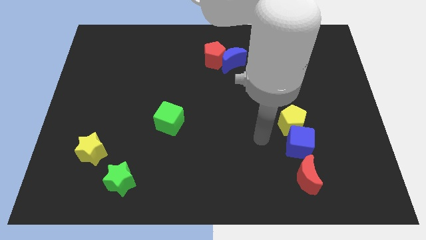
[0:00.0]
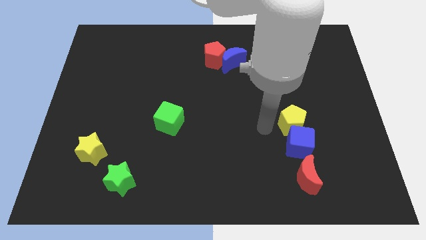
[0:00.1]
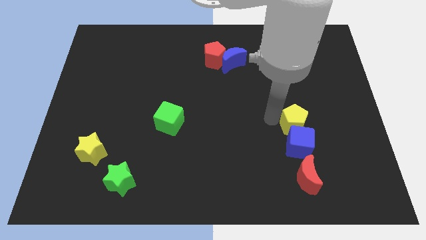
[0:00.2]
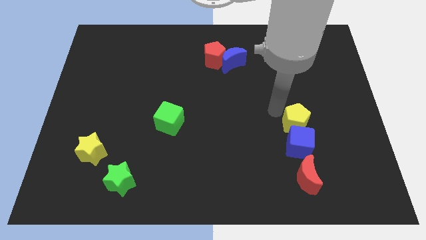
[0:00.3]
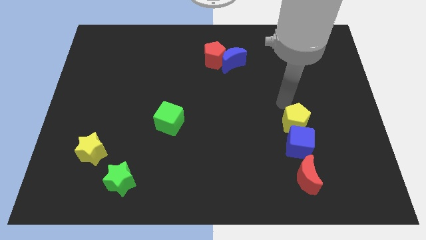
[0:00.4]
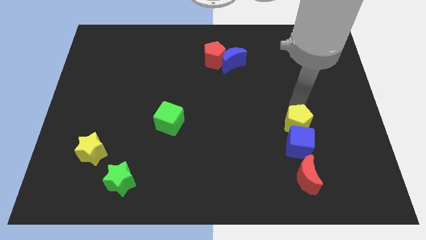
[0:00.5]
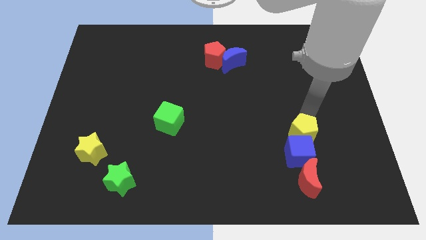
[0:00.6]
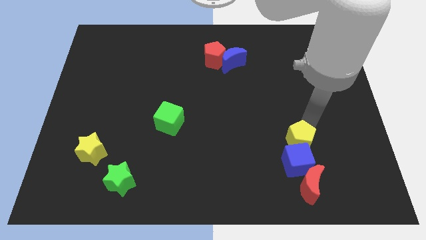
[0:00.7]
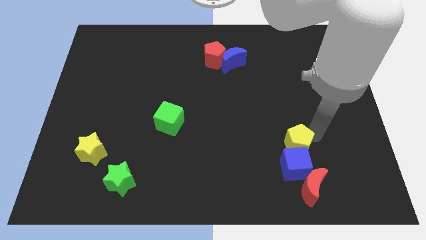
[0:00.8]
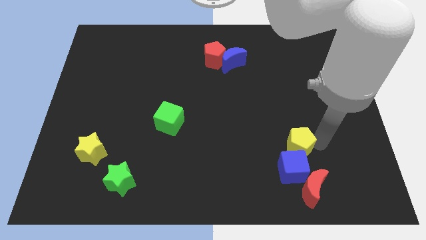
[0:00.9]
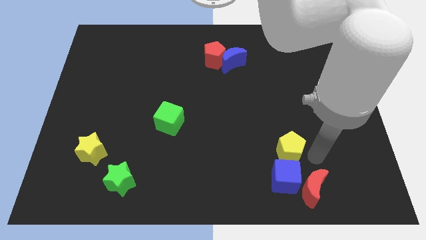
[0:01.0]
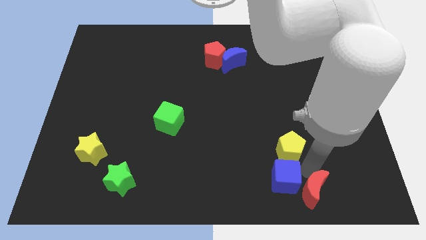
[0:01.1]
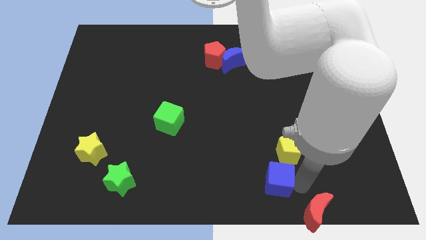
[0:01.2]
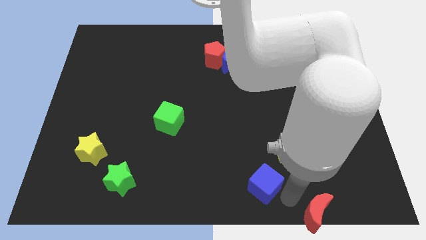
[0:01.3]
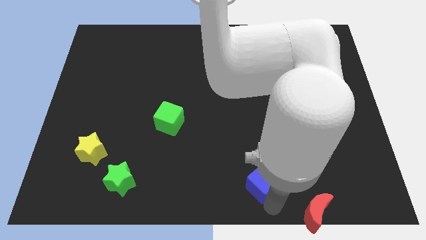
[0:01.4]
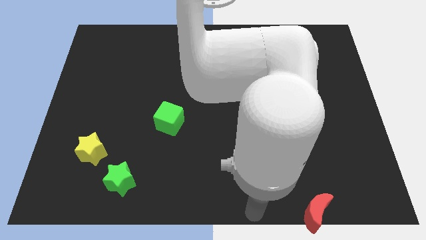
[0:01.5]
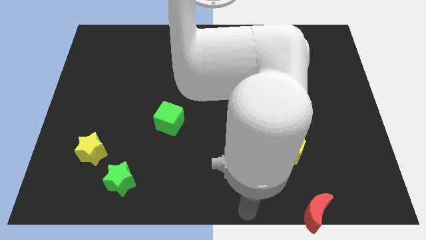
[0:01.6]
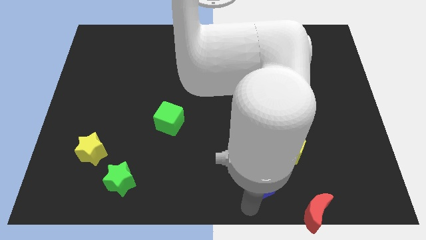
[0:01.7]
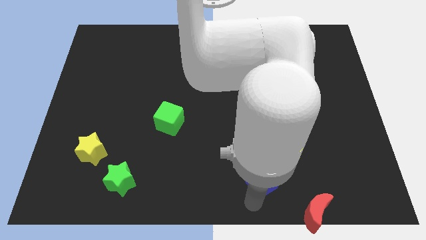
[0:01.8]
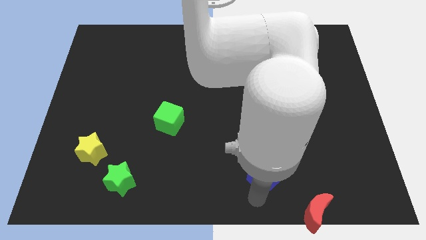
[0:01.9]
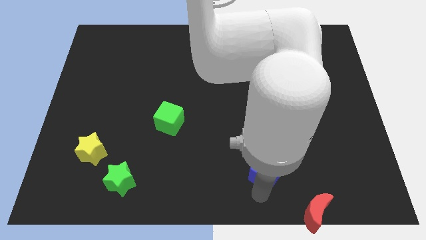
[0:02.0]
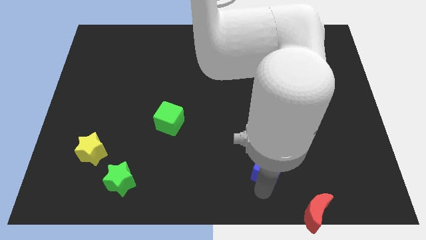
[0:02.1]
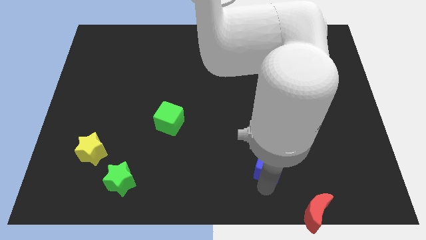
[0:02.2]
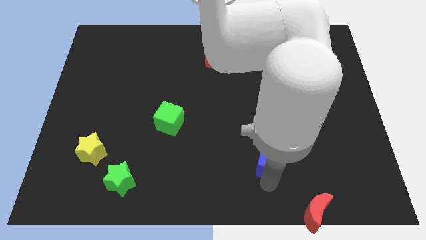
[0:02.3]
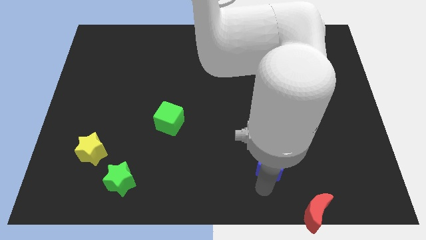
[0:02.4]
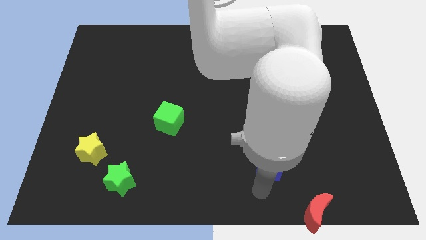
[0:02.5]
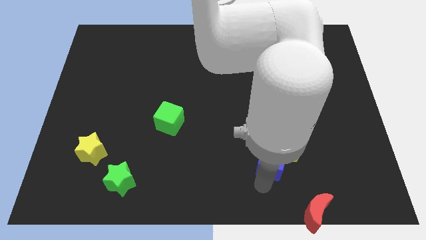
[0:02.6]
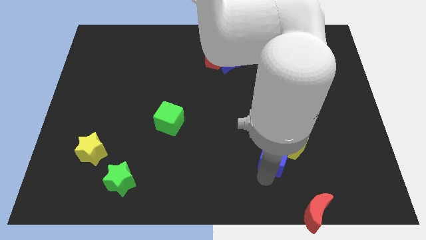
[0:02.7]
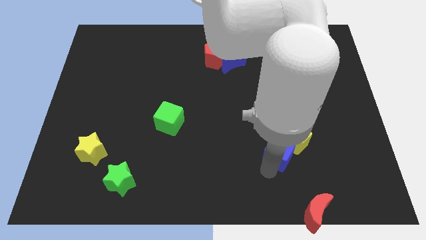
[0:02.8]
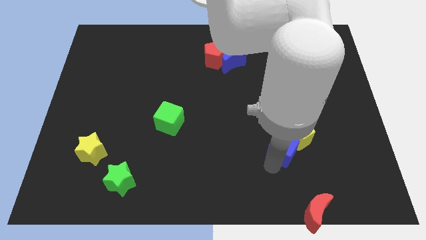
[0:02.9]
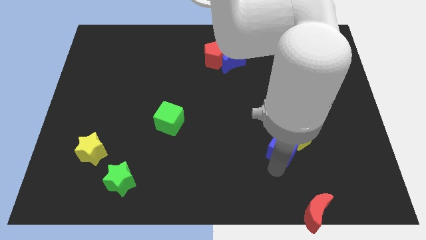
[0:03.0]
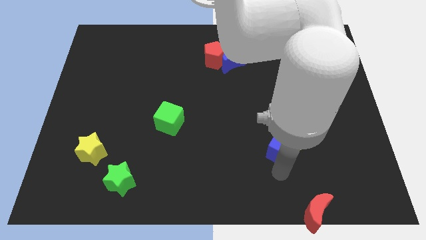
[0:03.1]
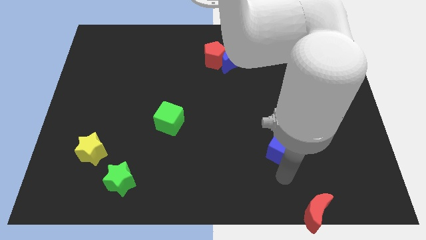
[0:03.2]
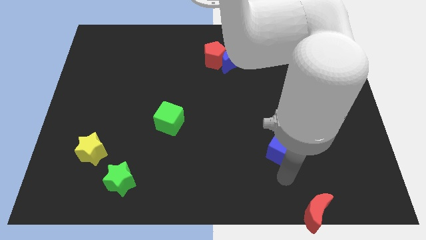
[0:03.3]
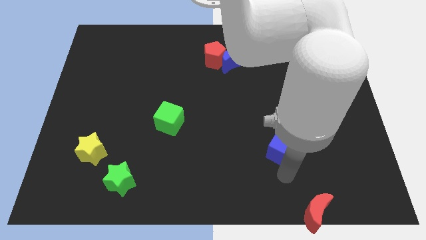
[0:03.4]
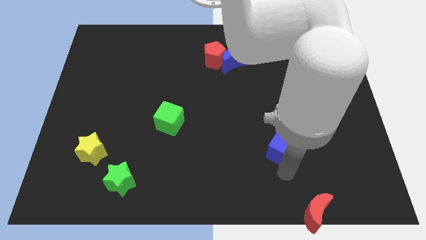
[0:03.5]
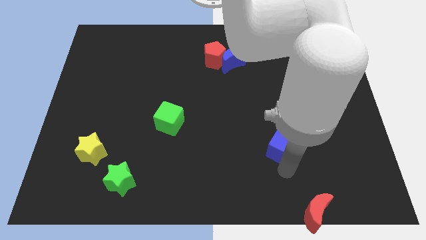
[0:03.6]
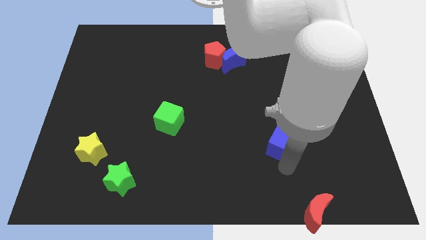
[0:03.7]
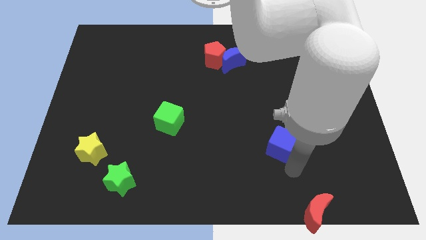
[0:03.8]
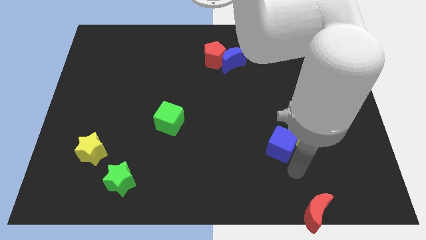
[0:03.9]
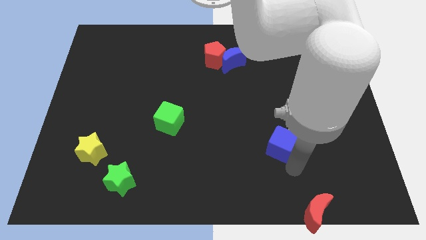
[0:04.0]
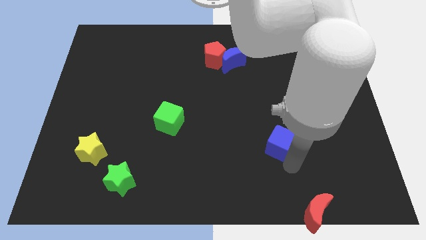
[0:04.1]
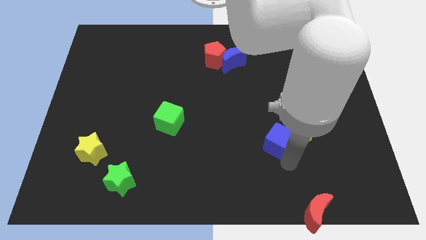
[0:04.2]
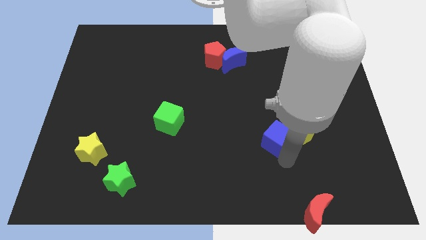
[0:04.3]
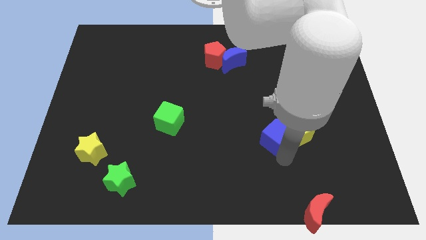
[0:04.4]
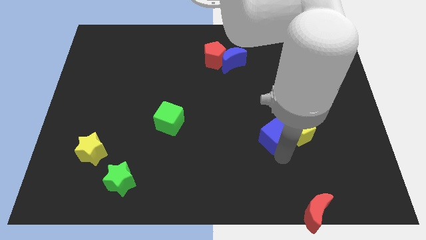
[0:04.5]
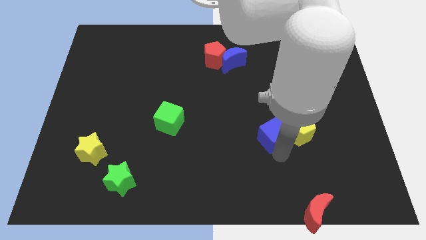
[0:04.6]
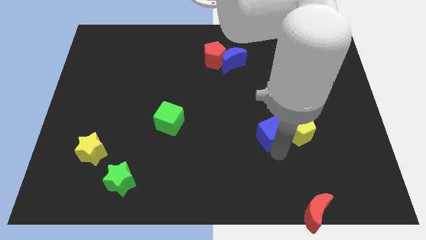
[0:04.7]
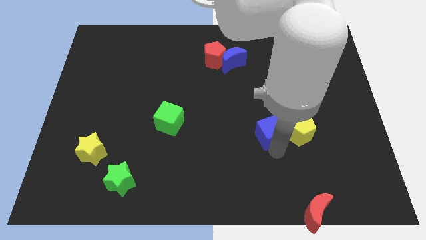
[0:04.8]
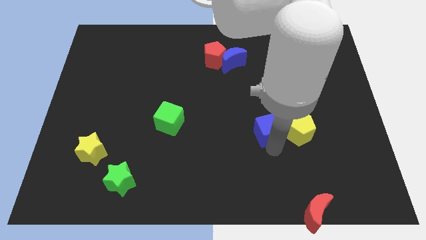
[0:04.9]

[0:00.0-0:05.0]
slide the blue cube somewhat upwards and then to the left

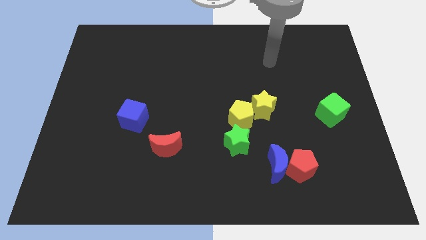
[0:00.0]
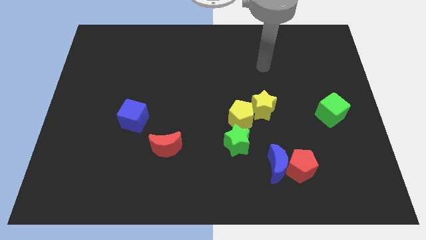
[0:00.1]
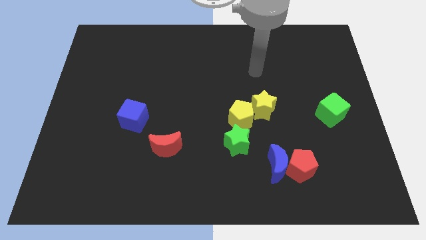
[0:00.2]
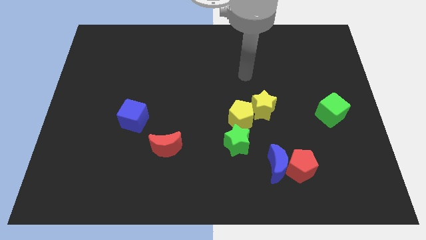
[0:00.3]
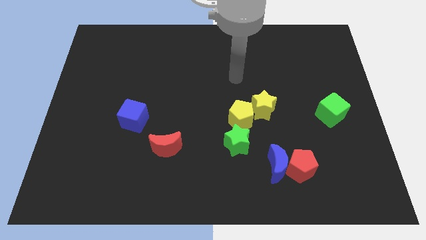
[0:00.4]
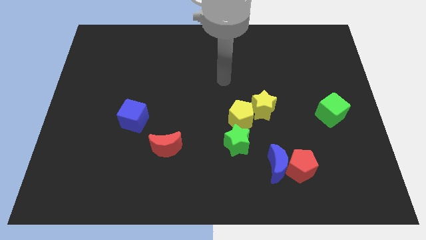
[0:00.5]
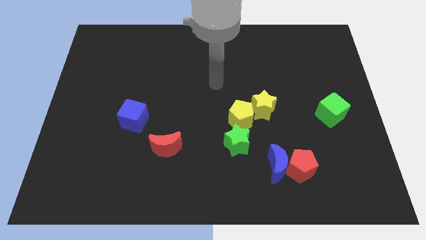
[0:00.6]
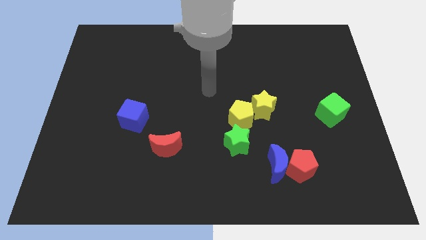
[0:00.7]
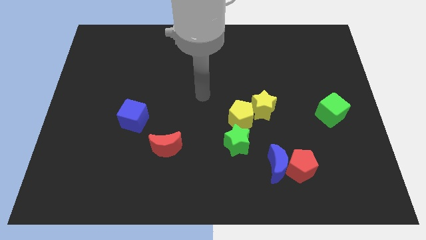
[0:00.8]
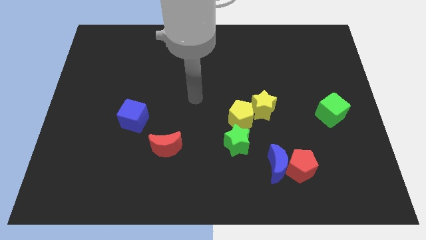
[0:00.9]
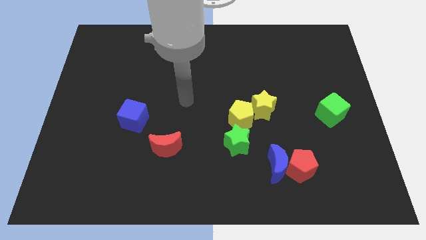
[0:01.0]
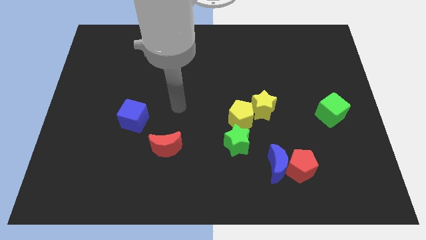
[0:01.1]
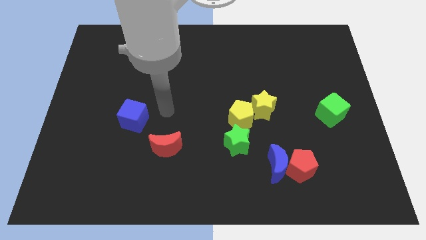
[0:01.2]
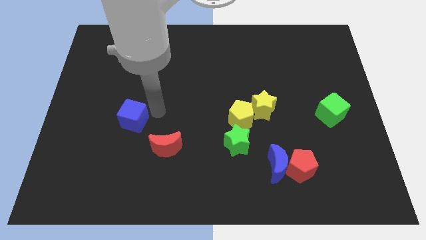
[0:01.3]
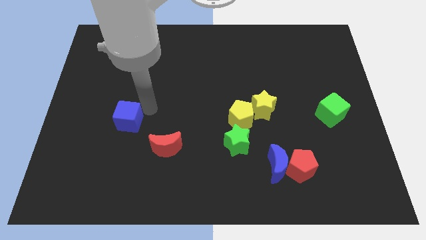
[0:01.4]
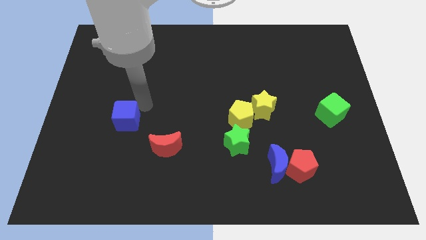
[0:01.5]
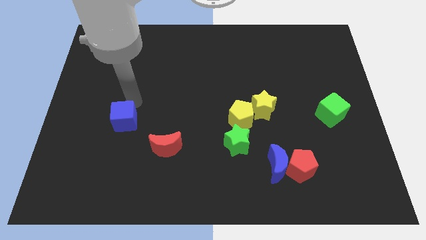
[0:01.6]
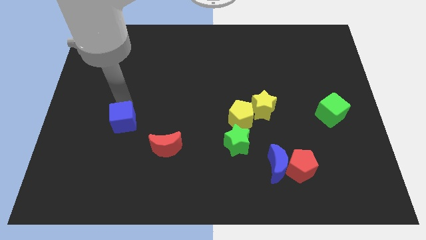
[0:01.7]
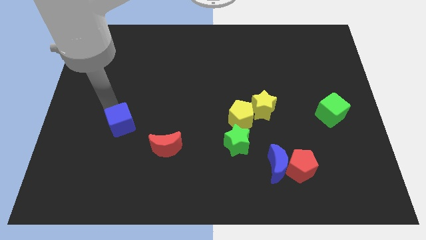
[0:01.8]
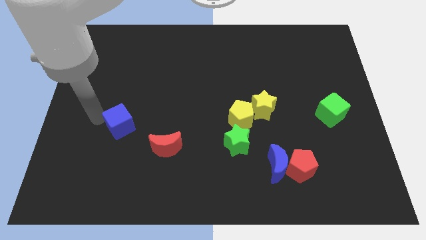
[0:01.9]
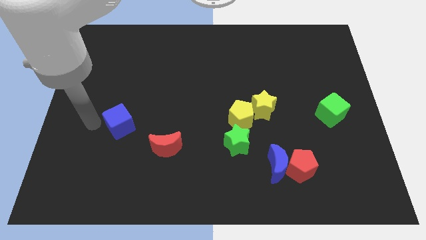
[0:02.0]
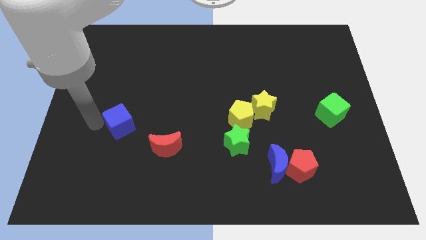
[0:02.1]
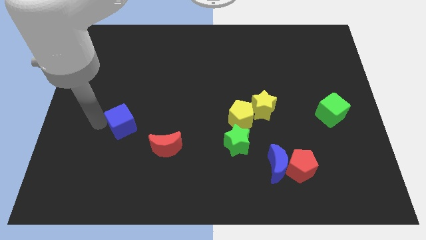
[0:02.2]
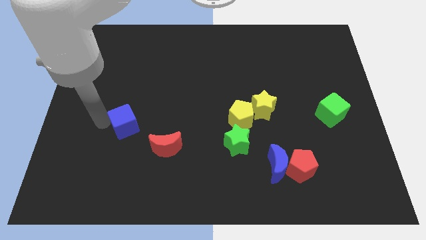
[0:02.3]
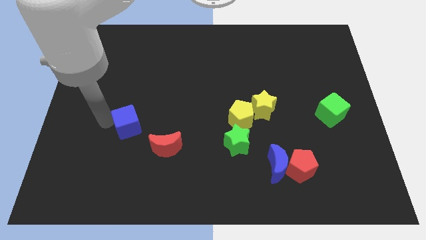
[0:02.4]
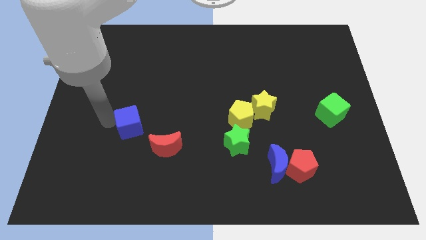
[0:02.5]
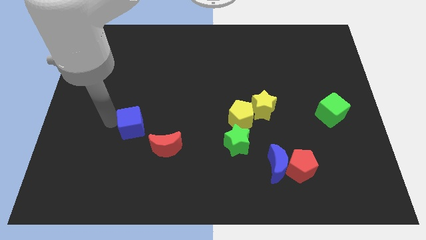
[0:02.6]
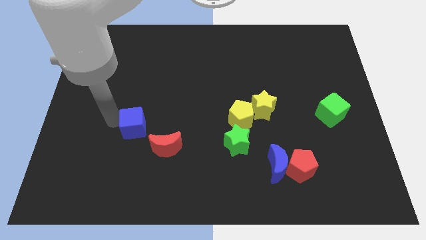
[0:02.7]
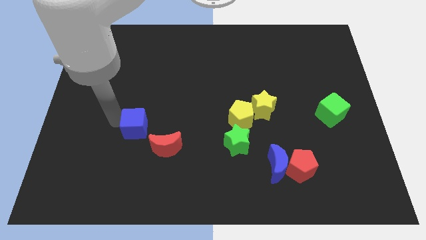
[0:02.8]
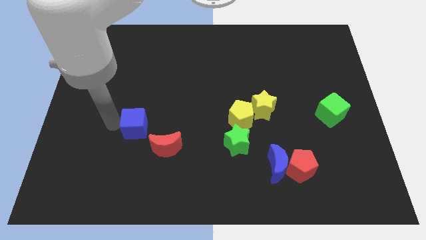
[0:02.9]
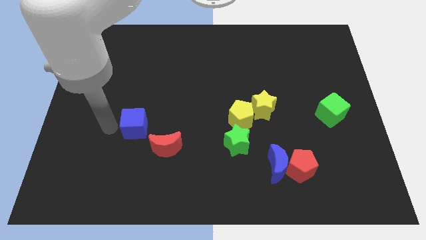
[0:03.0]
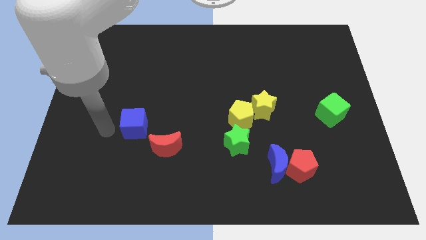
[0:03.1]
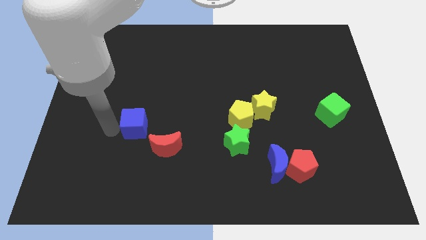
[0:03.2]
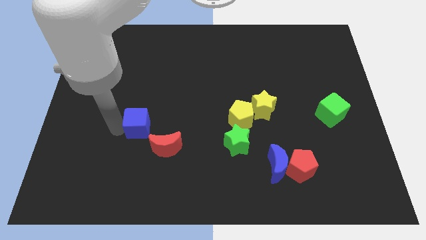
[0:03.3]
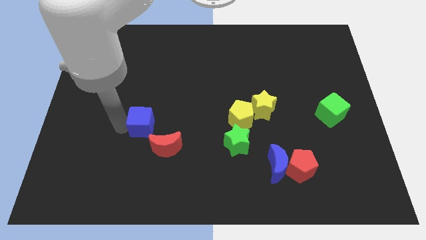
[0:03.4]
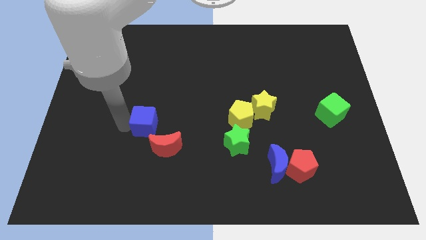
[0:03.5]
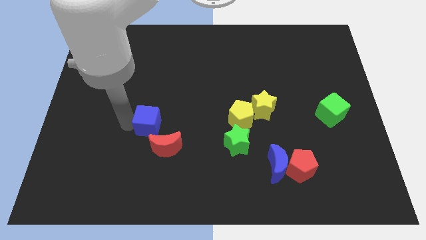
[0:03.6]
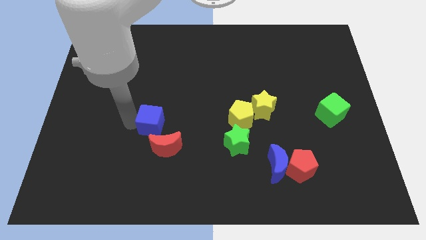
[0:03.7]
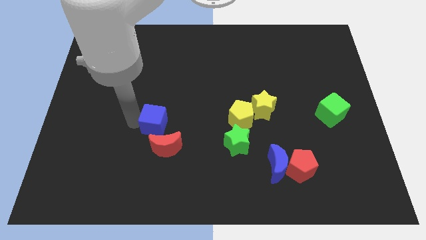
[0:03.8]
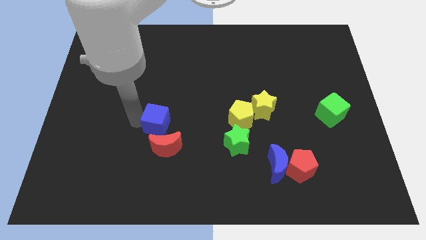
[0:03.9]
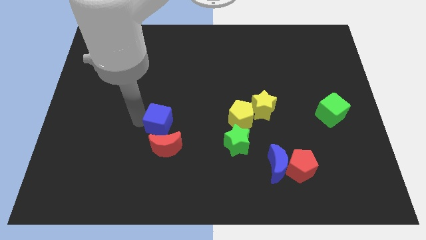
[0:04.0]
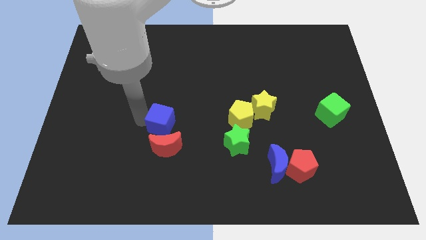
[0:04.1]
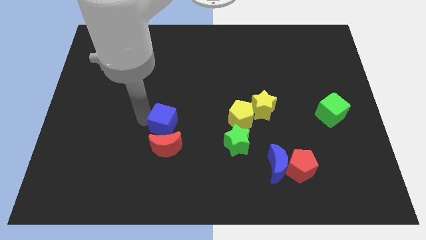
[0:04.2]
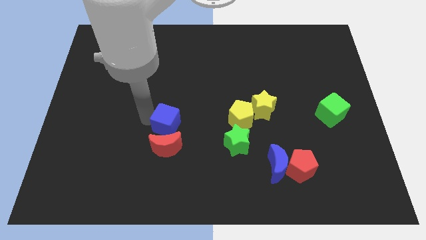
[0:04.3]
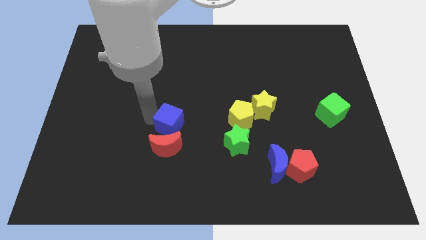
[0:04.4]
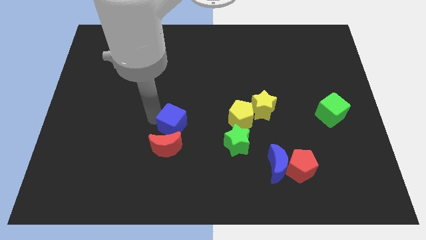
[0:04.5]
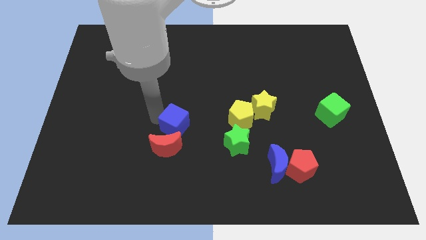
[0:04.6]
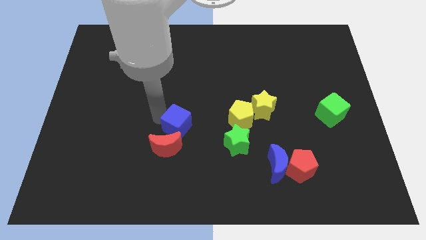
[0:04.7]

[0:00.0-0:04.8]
move the blue cube diagonally down and right a little bit
